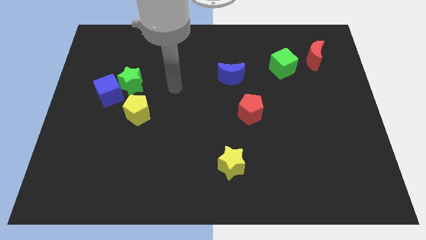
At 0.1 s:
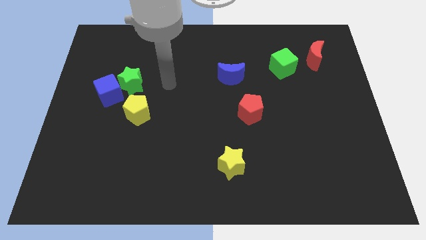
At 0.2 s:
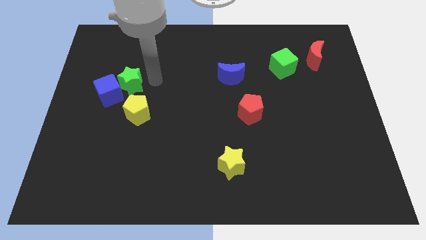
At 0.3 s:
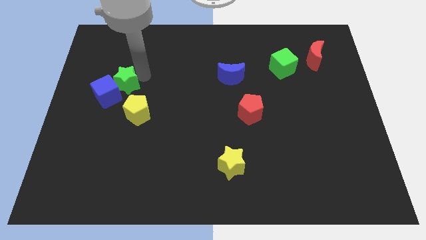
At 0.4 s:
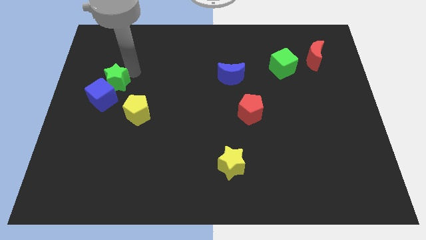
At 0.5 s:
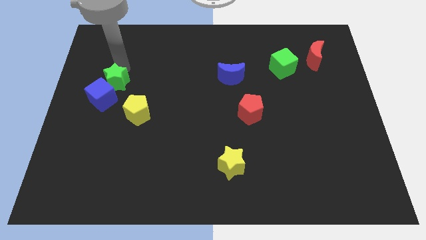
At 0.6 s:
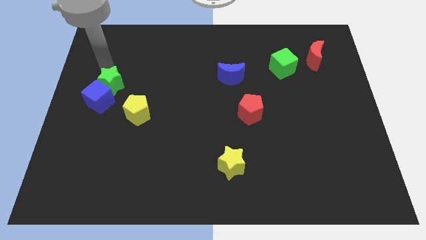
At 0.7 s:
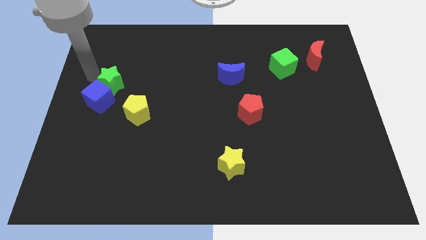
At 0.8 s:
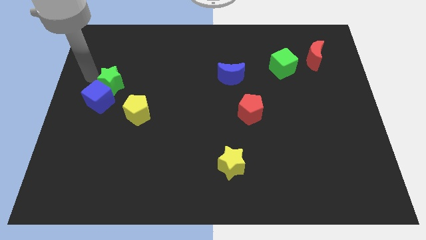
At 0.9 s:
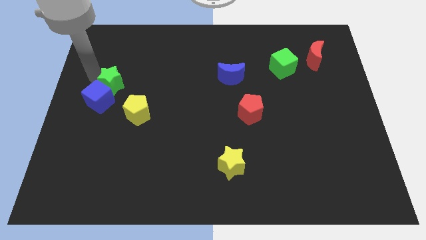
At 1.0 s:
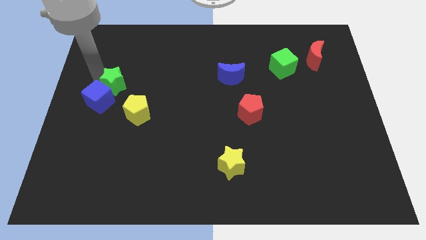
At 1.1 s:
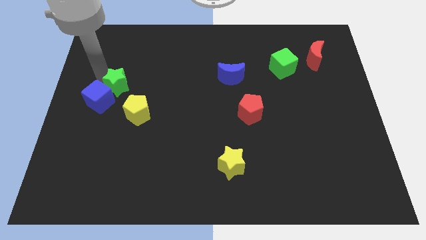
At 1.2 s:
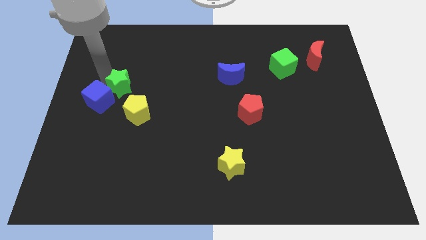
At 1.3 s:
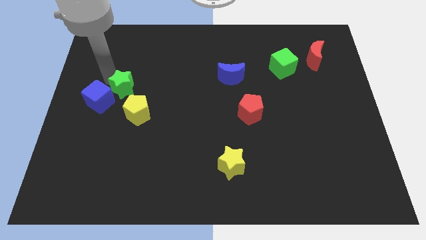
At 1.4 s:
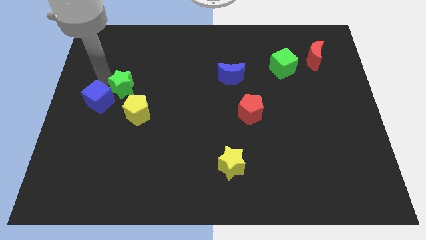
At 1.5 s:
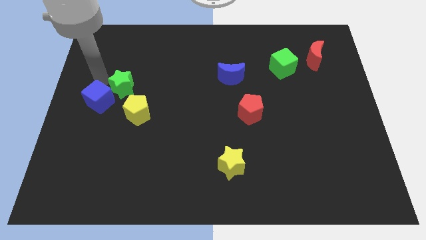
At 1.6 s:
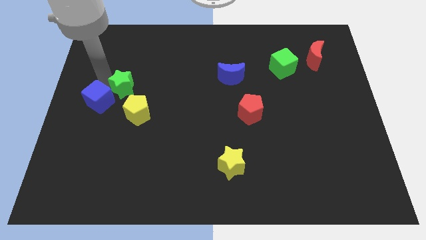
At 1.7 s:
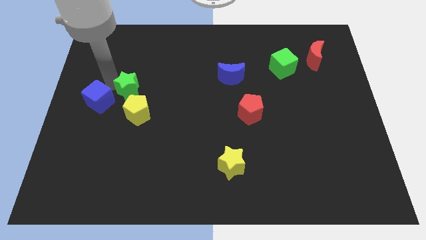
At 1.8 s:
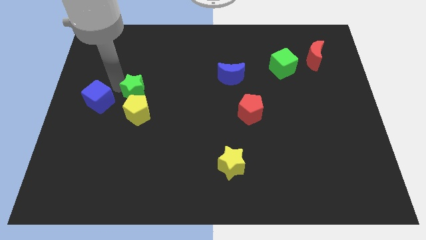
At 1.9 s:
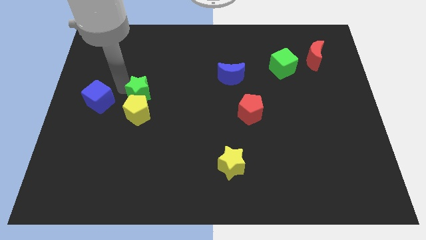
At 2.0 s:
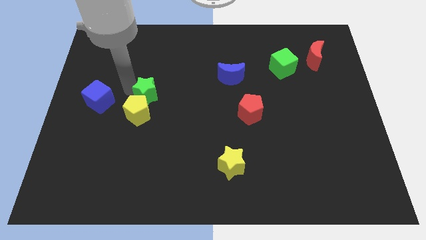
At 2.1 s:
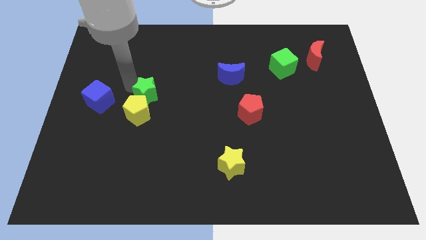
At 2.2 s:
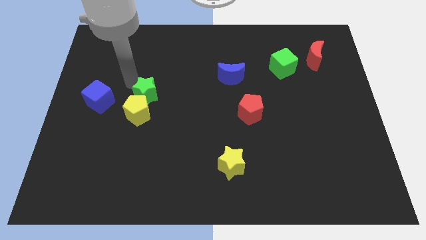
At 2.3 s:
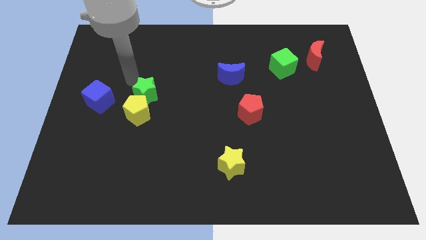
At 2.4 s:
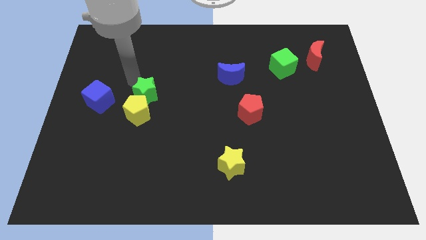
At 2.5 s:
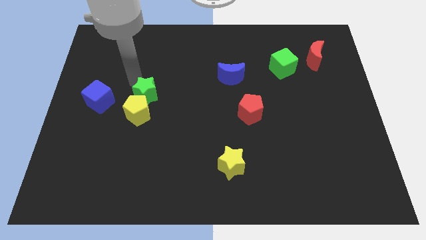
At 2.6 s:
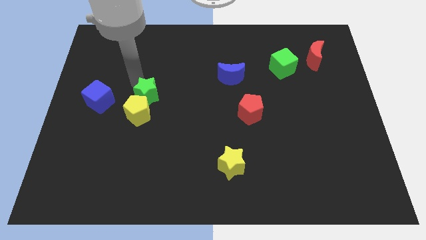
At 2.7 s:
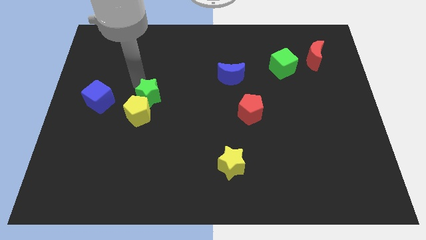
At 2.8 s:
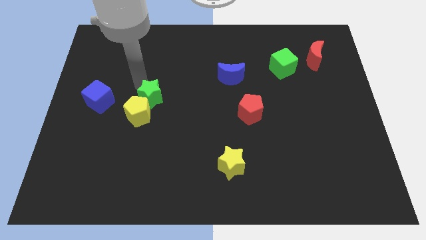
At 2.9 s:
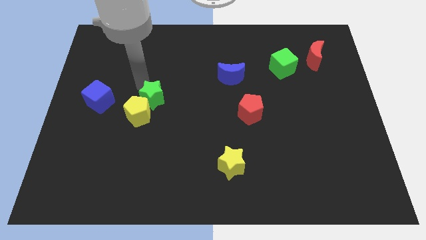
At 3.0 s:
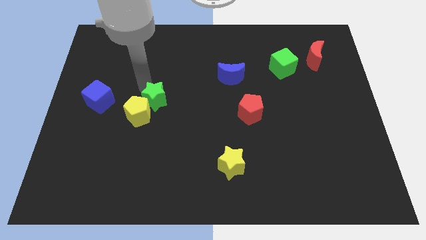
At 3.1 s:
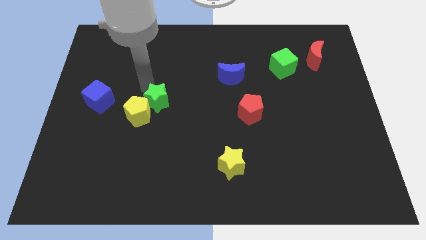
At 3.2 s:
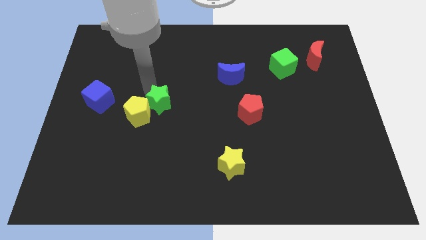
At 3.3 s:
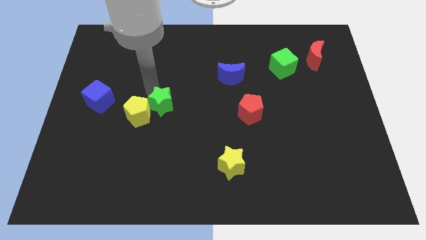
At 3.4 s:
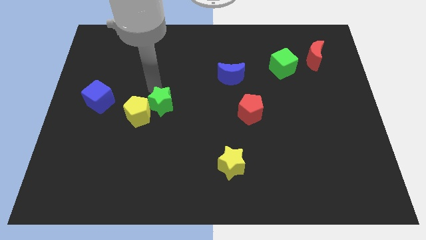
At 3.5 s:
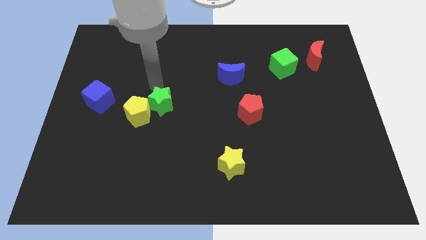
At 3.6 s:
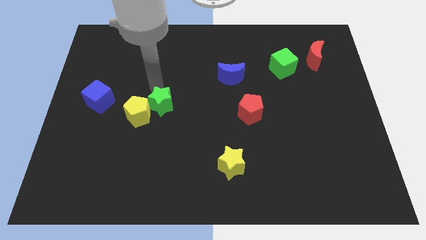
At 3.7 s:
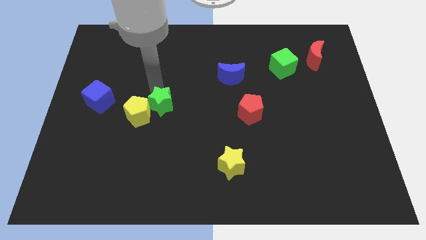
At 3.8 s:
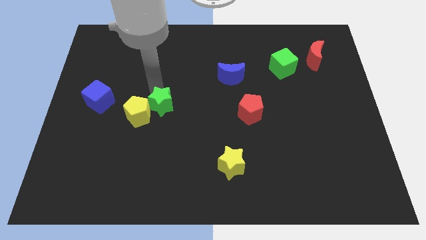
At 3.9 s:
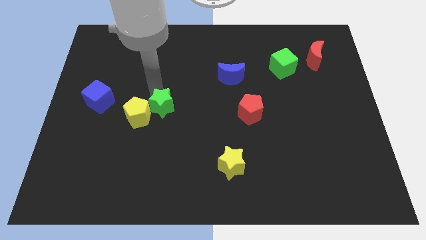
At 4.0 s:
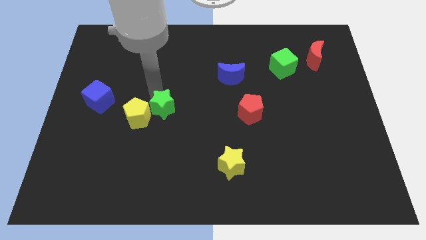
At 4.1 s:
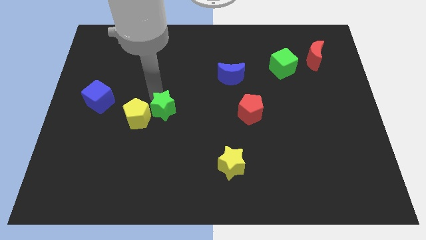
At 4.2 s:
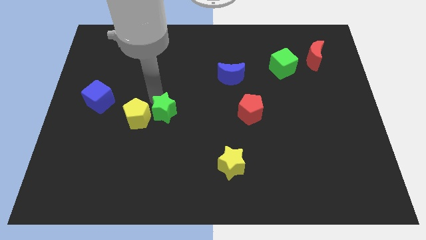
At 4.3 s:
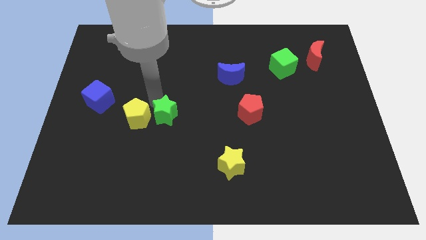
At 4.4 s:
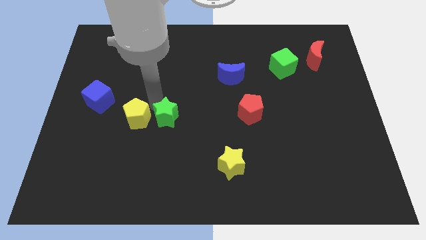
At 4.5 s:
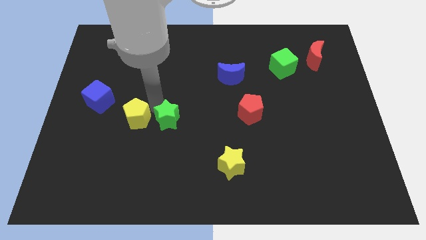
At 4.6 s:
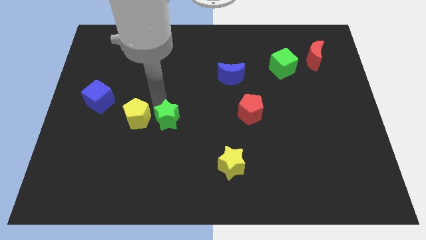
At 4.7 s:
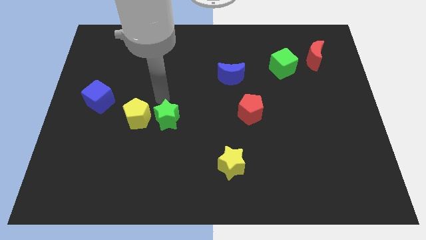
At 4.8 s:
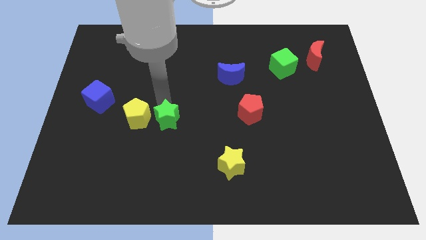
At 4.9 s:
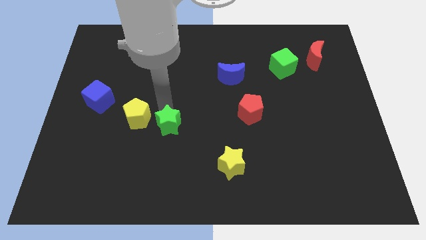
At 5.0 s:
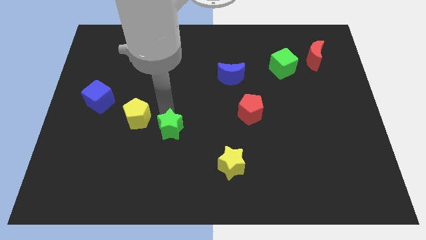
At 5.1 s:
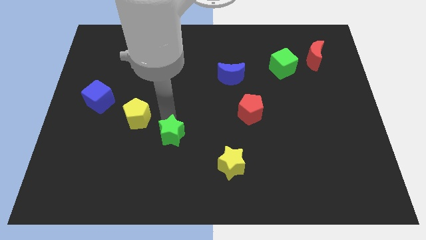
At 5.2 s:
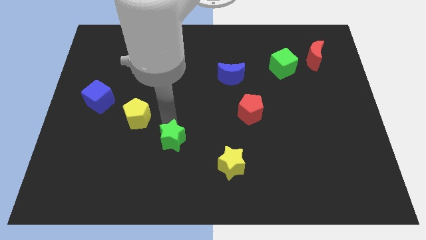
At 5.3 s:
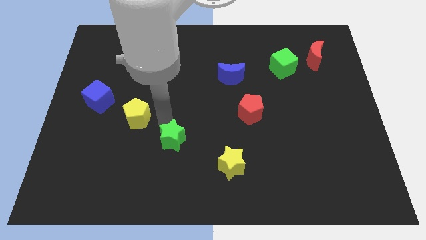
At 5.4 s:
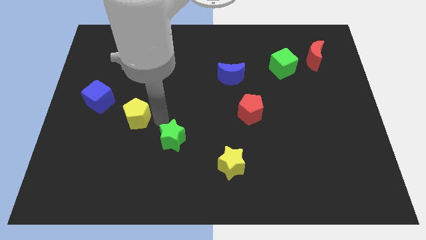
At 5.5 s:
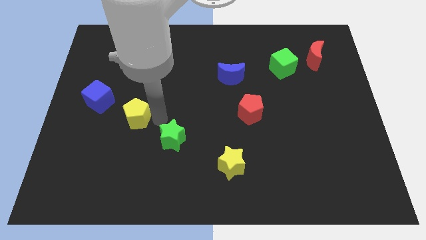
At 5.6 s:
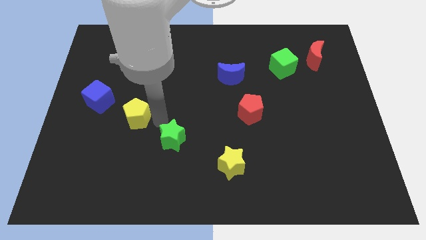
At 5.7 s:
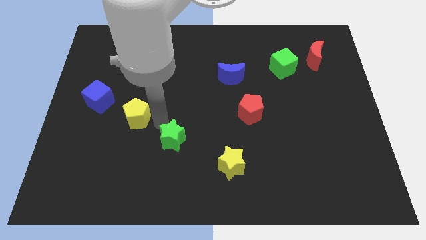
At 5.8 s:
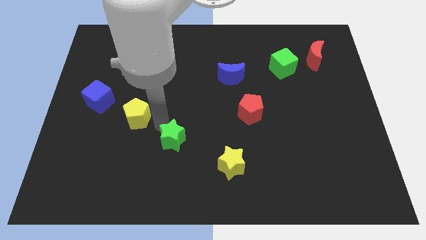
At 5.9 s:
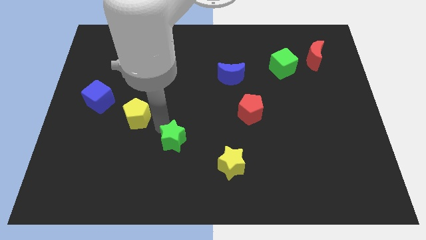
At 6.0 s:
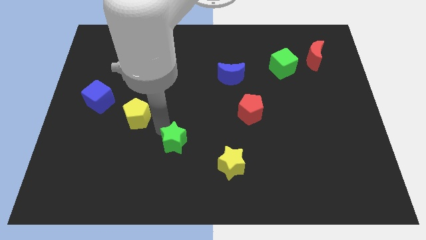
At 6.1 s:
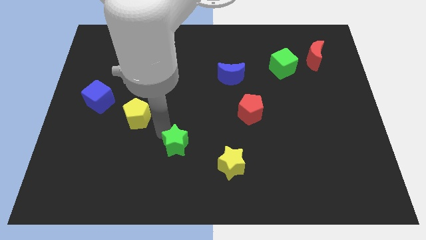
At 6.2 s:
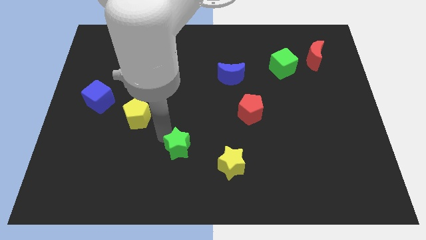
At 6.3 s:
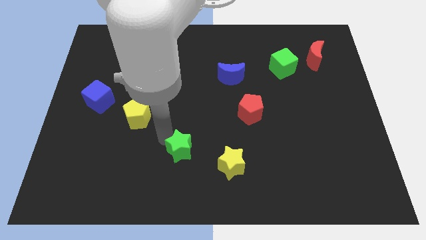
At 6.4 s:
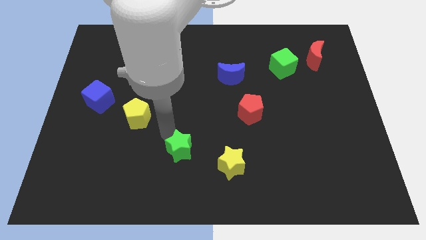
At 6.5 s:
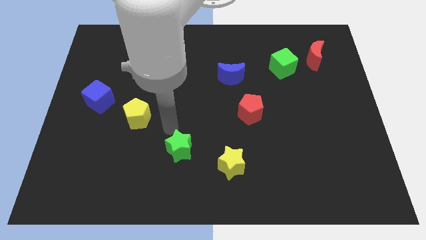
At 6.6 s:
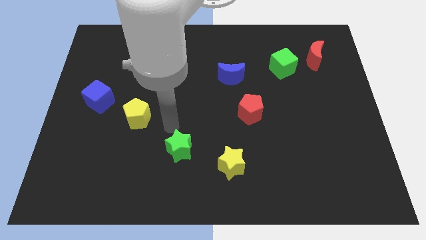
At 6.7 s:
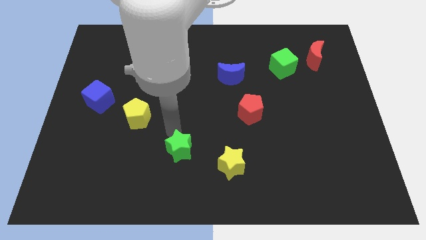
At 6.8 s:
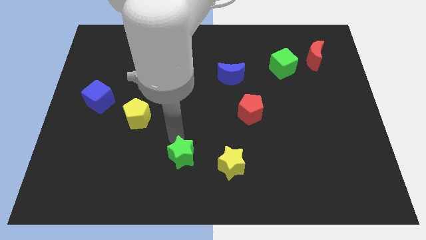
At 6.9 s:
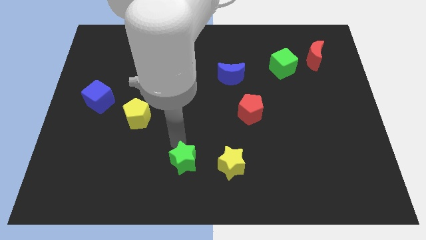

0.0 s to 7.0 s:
slide the green star to the bottom side
